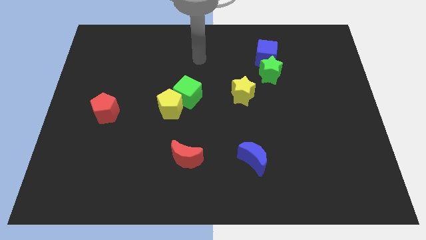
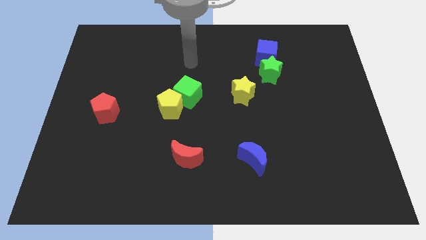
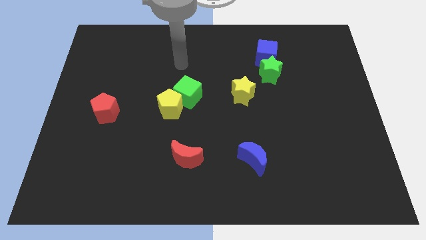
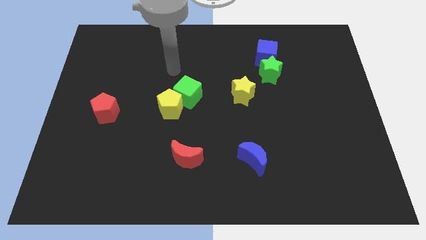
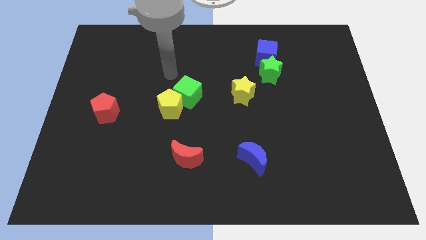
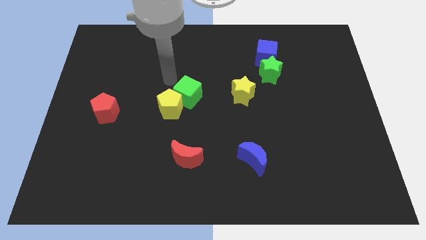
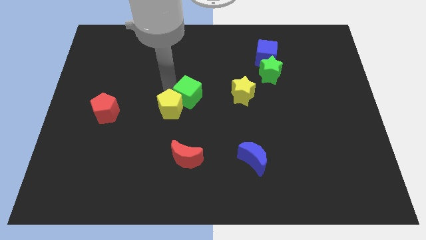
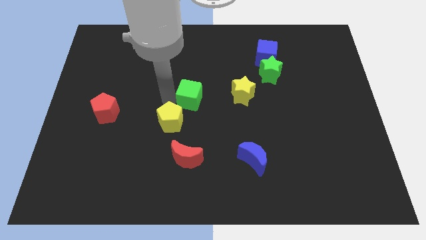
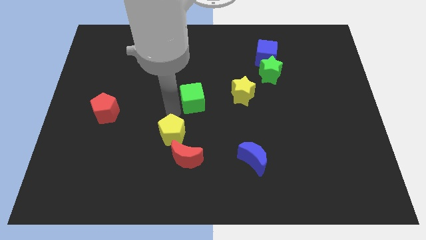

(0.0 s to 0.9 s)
move the green cube away from the yellow pentagon

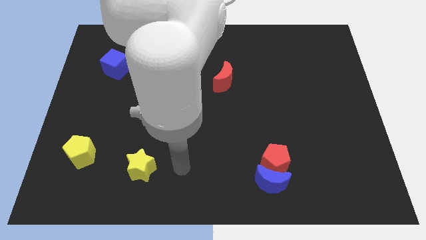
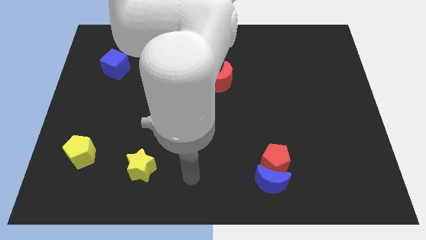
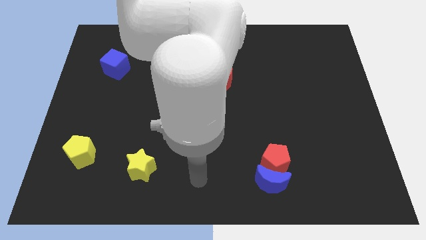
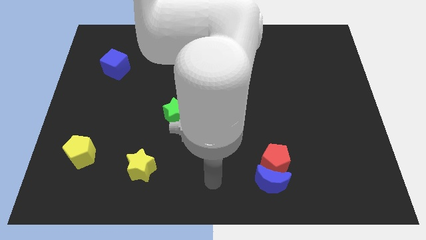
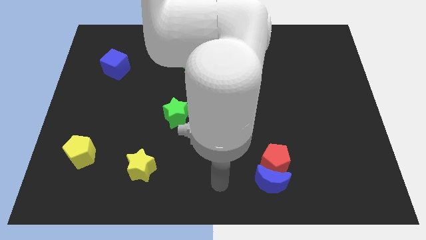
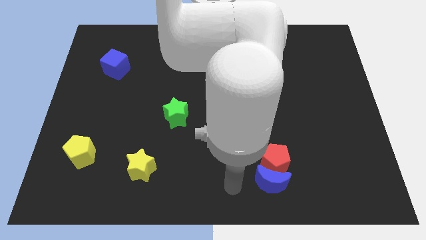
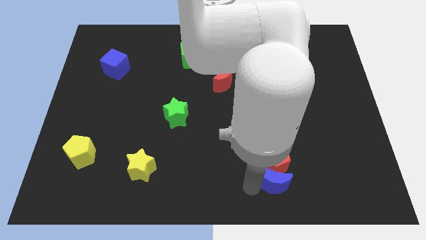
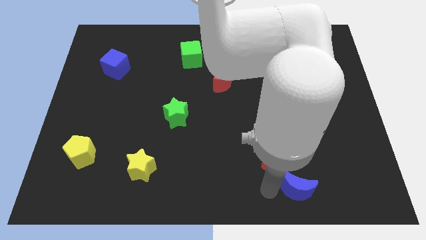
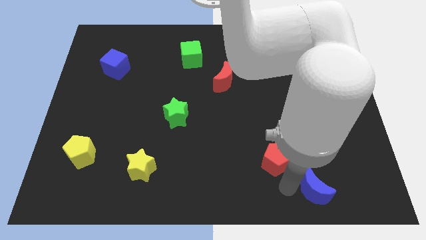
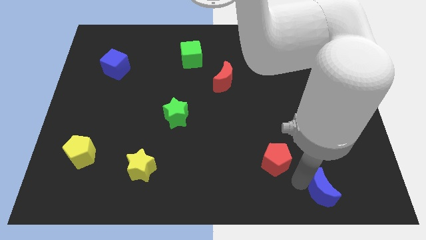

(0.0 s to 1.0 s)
separate the red pentagon from the blue moon

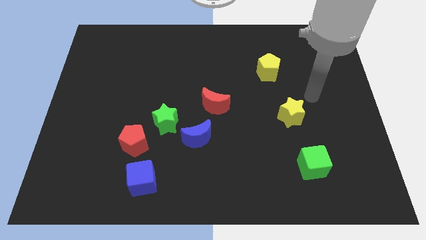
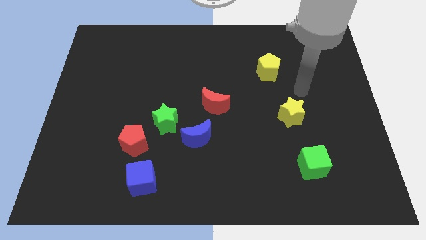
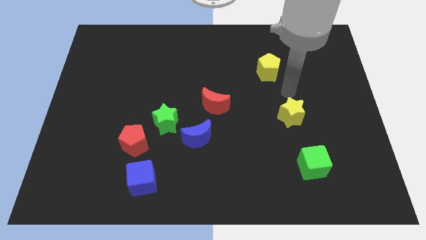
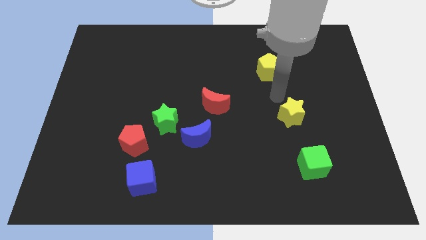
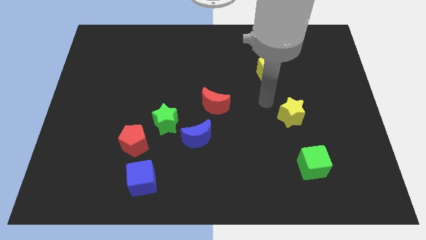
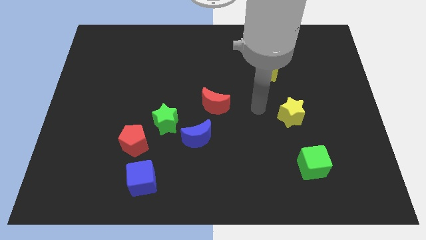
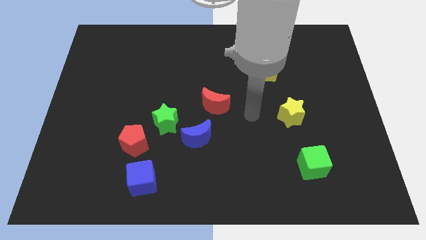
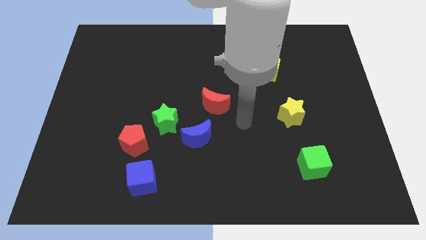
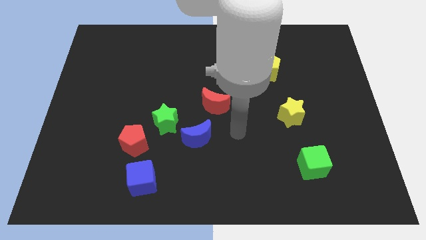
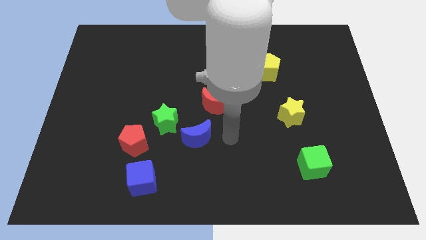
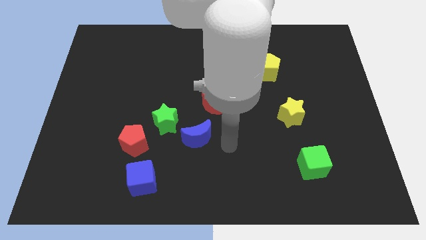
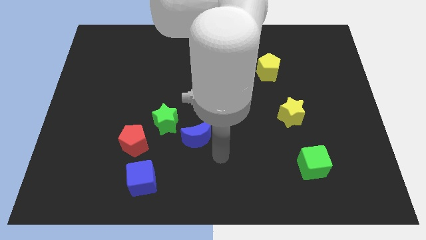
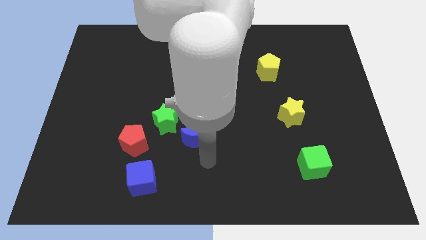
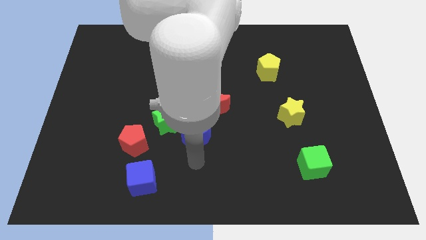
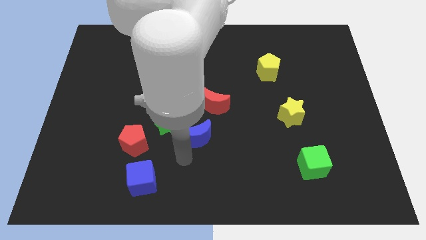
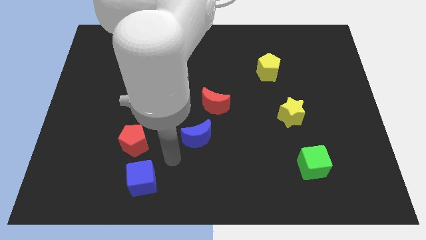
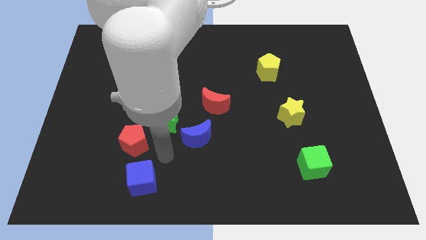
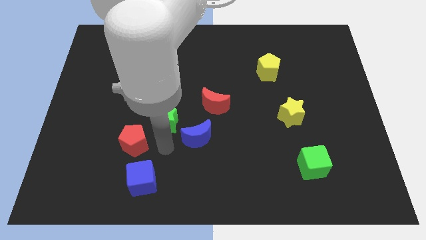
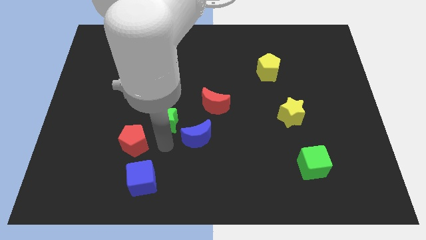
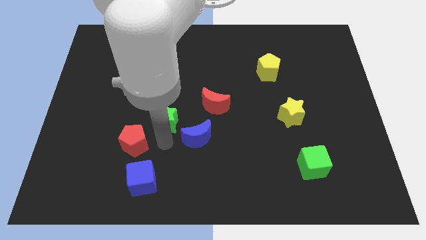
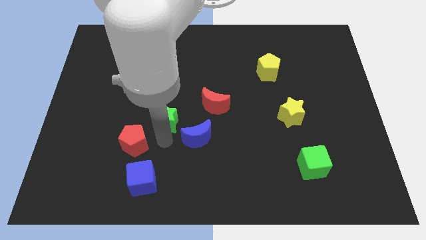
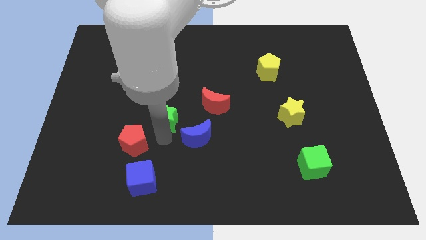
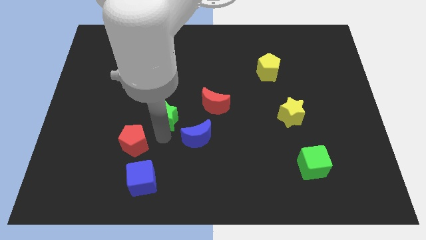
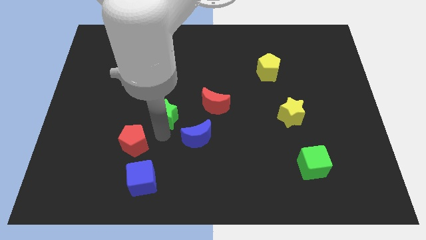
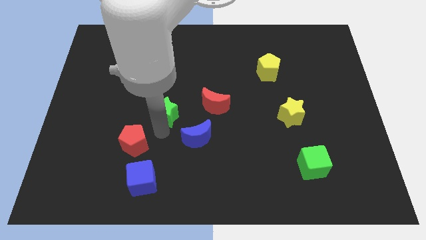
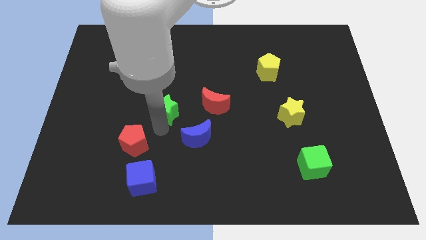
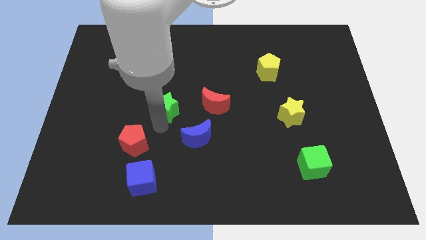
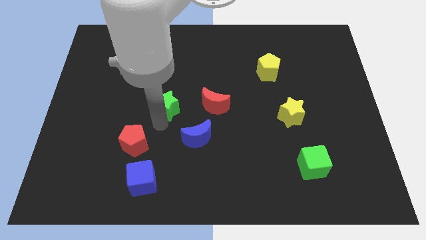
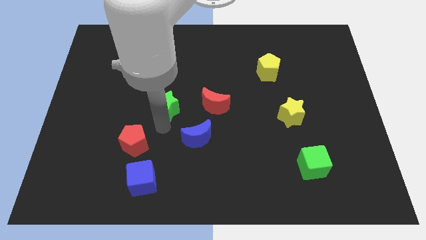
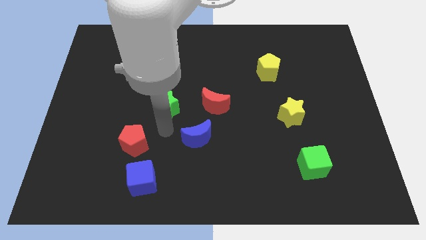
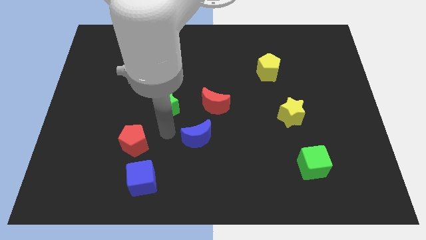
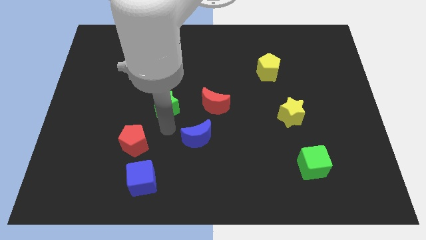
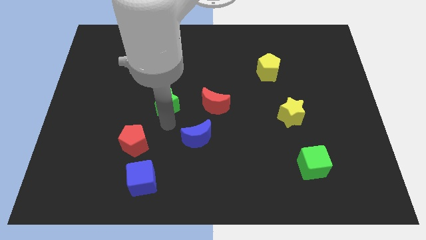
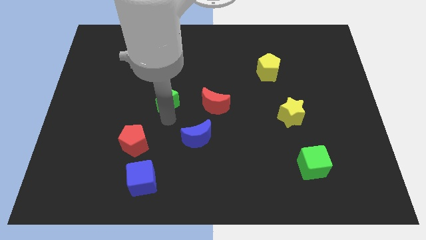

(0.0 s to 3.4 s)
separate the green star from the blue moon and red pentagon

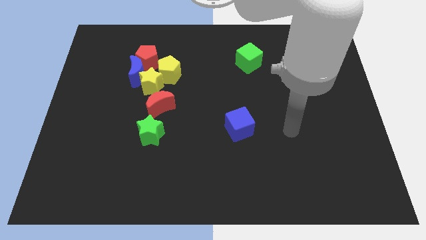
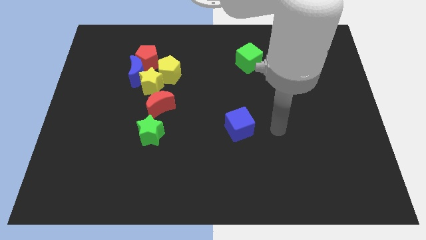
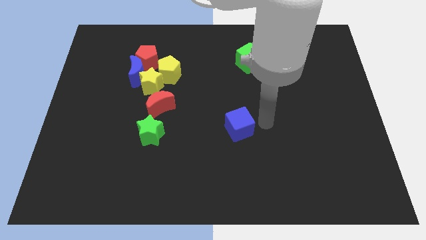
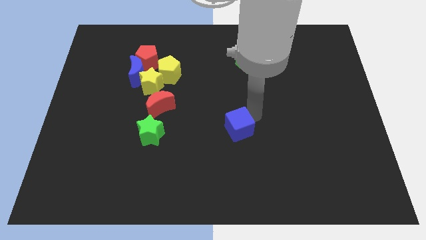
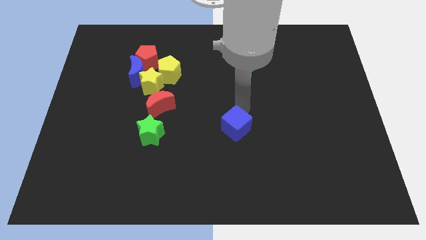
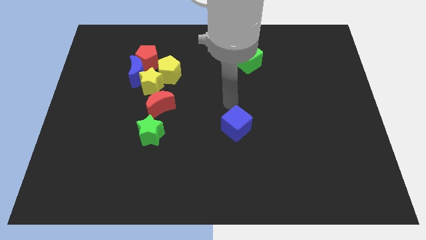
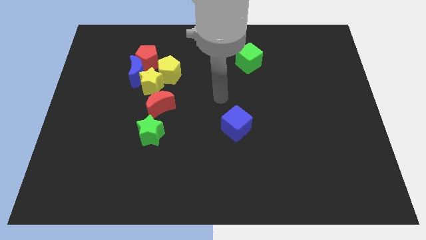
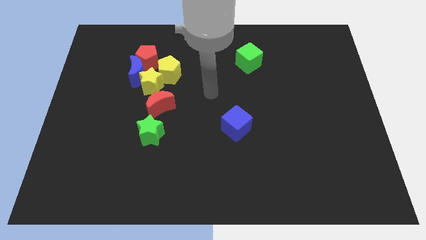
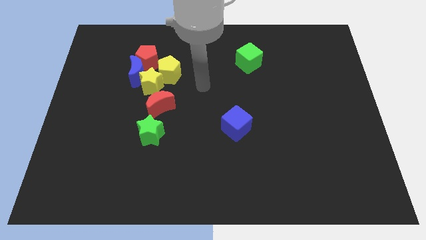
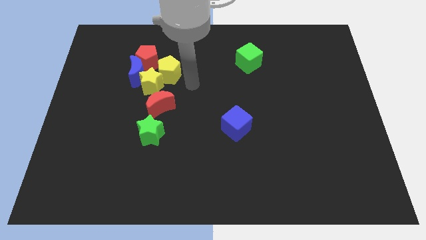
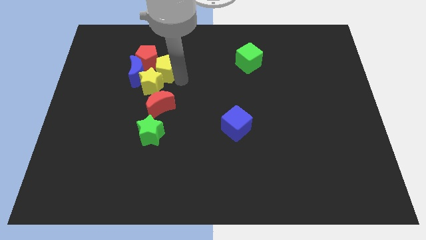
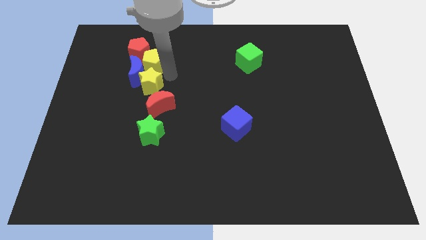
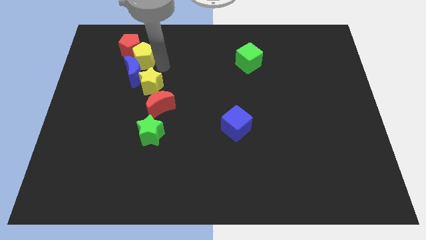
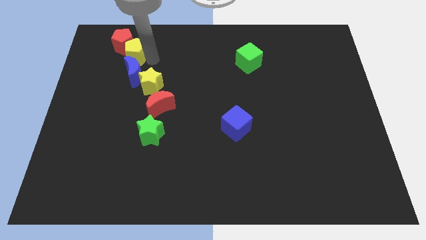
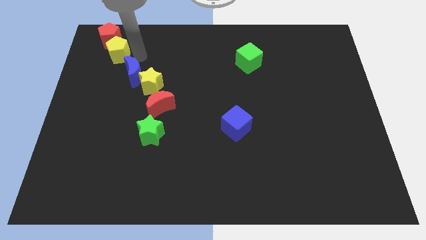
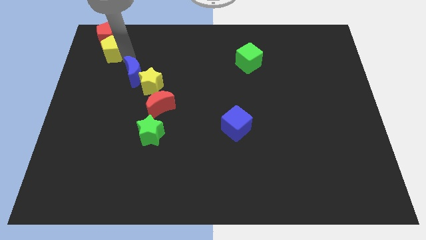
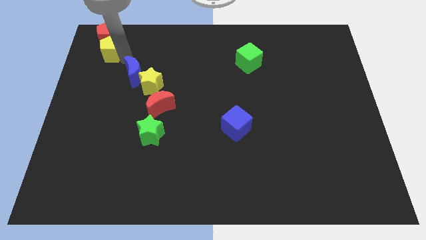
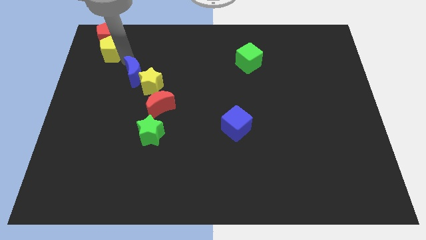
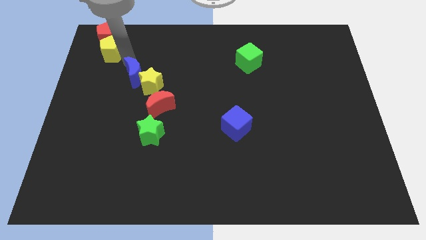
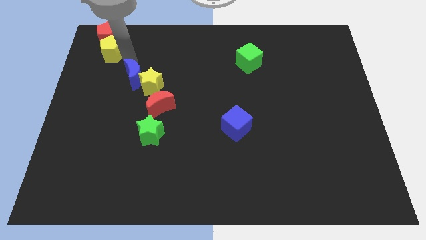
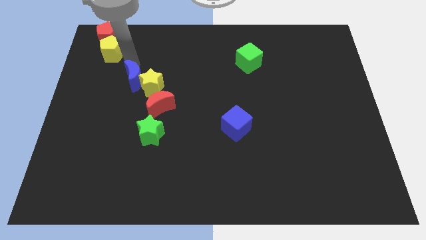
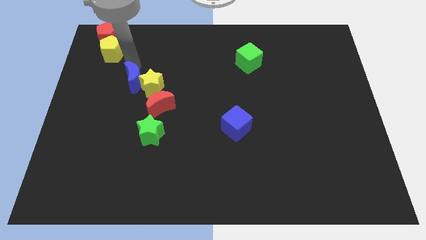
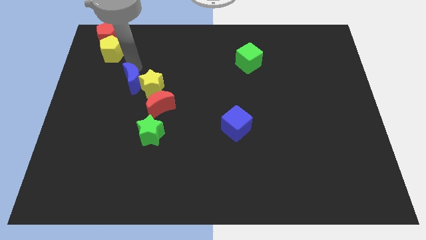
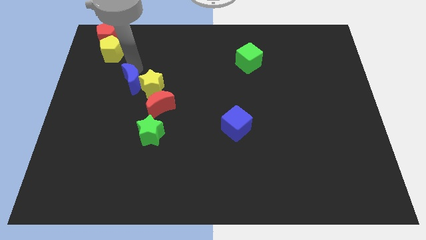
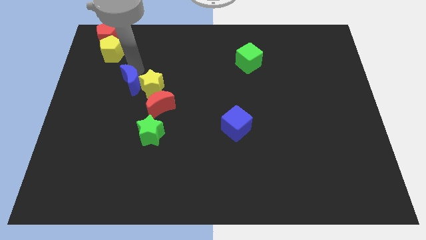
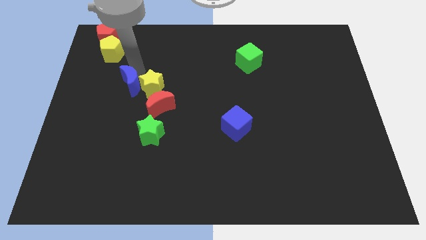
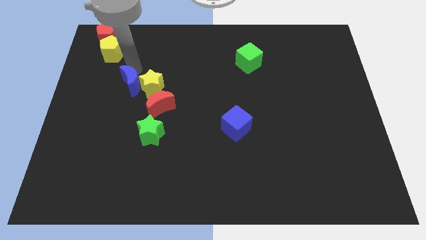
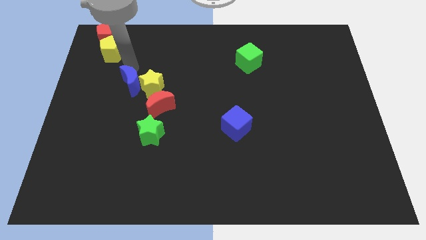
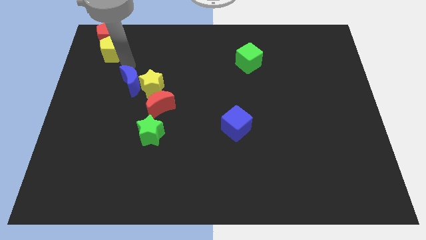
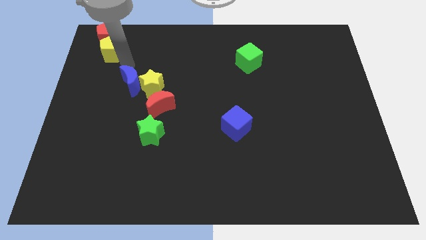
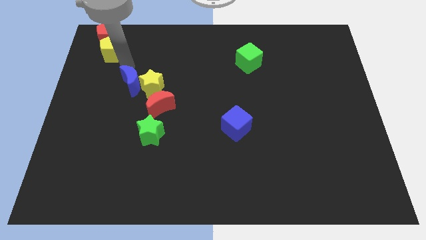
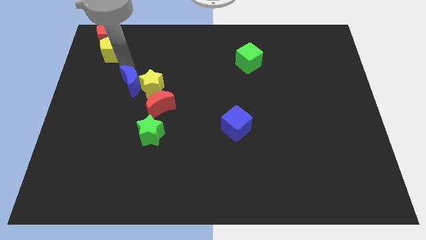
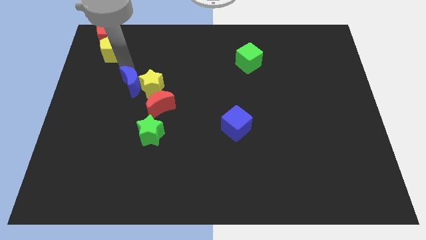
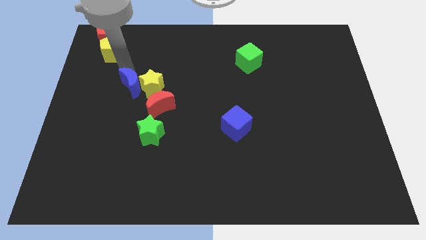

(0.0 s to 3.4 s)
move the blue moon away from the red pentagon, yellow star, and yellow pentagon

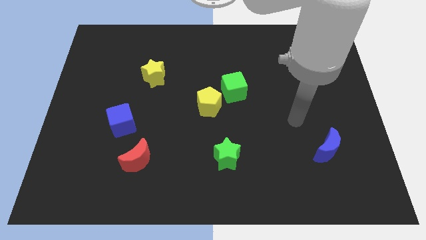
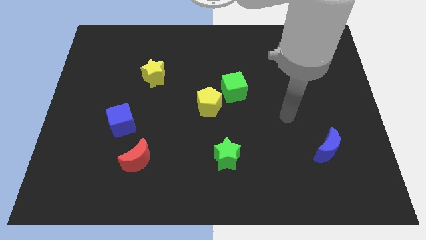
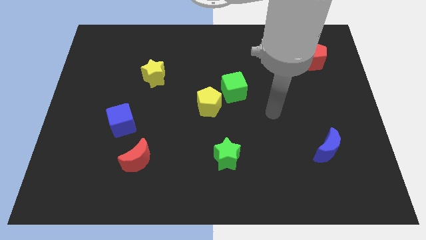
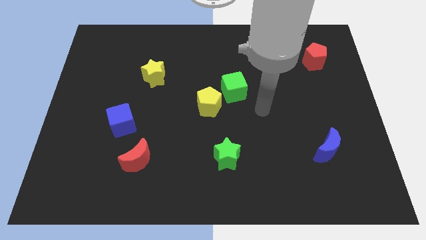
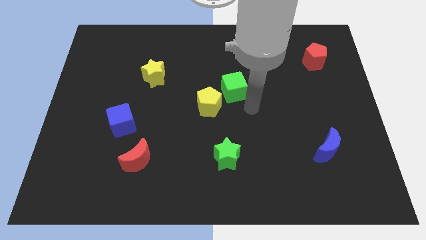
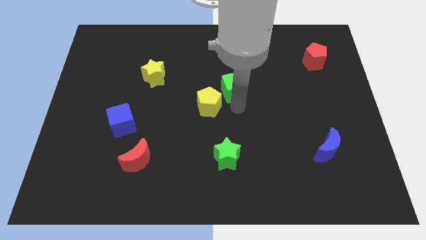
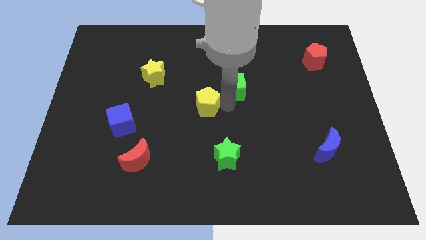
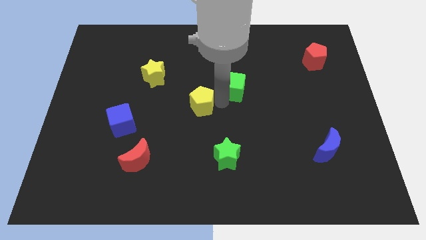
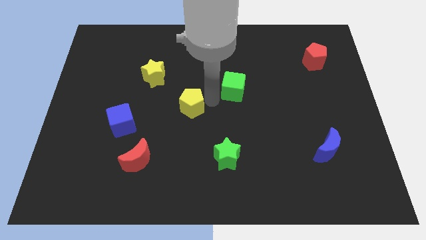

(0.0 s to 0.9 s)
separate the green cube from the yellow pentagon
